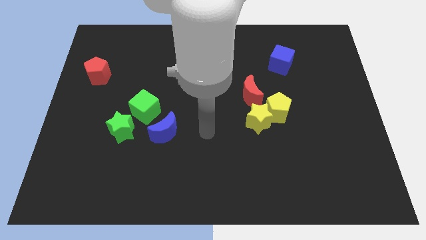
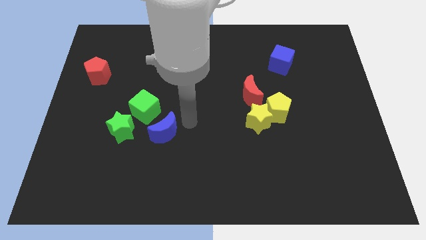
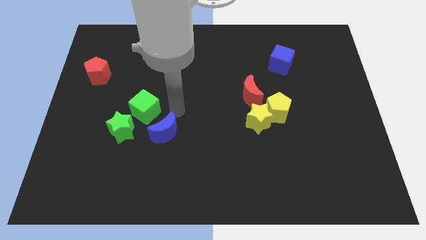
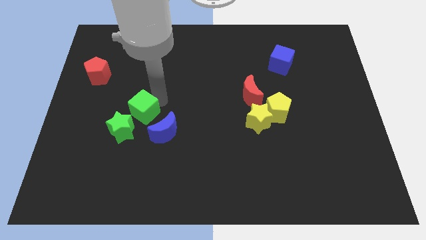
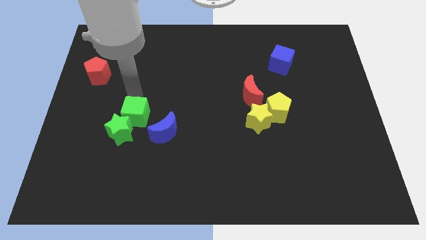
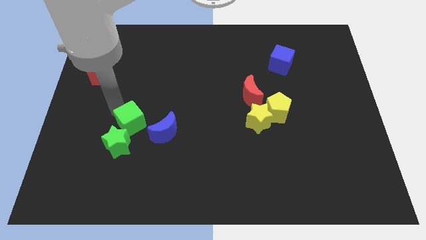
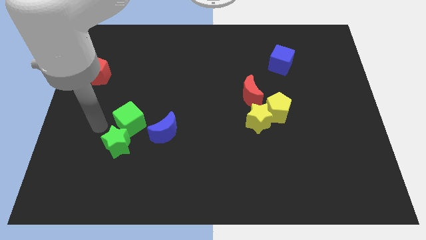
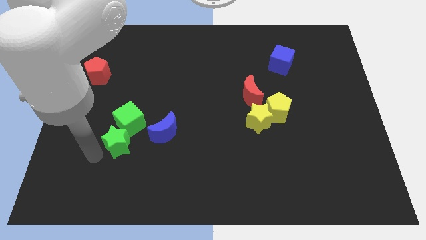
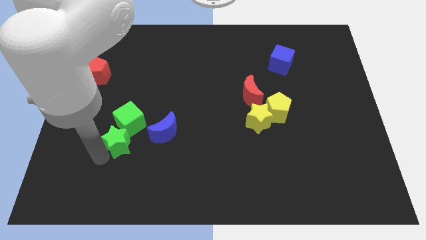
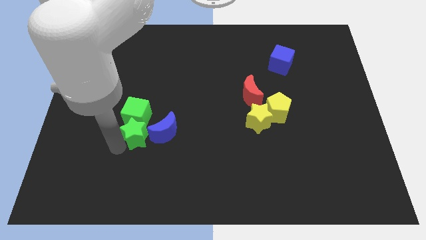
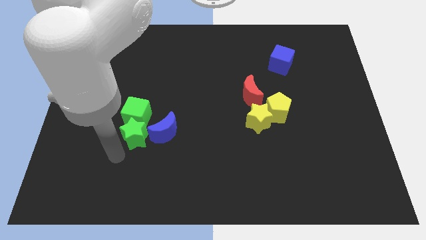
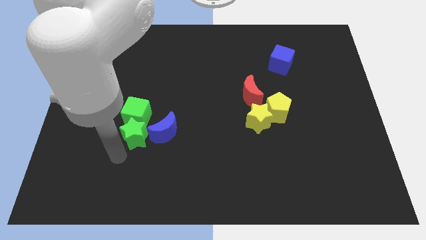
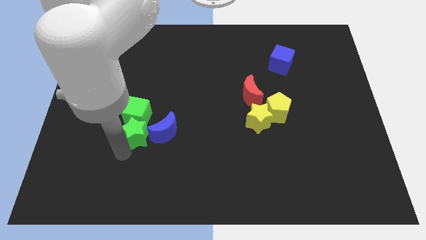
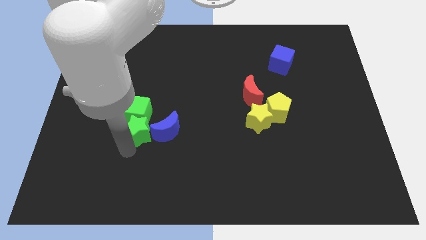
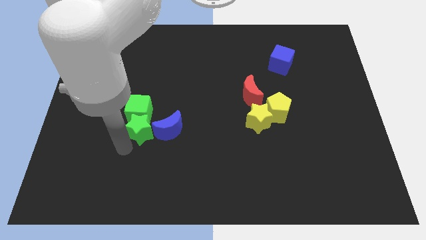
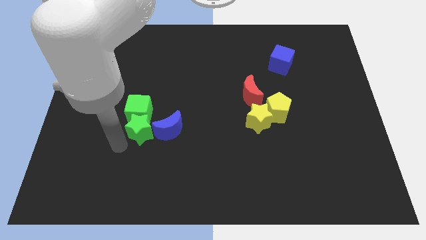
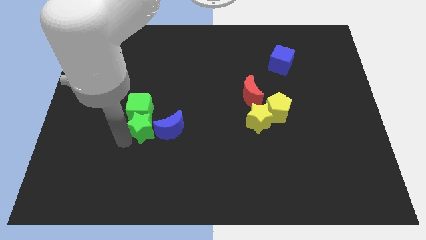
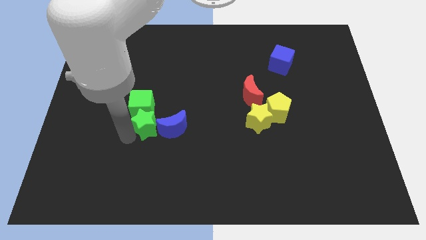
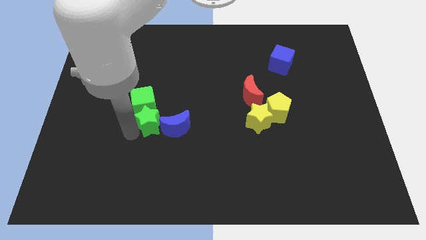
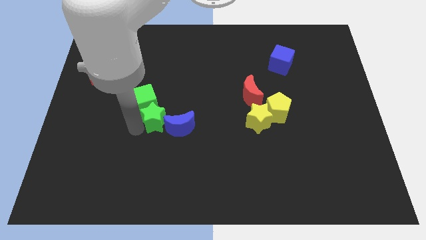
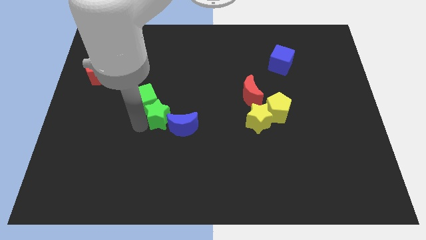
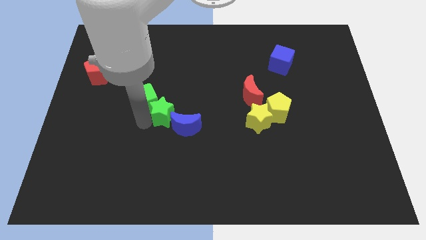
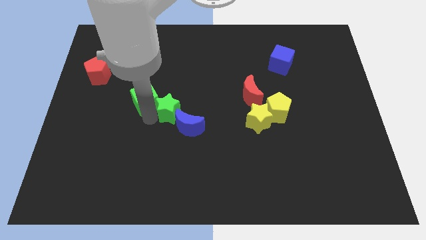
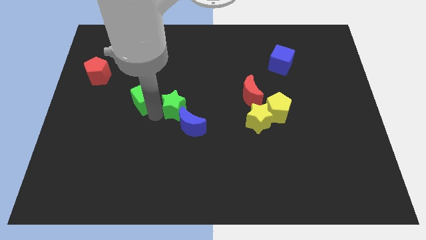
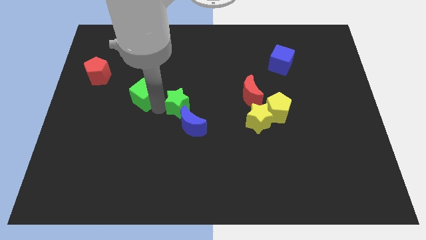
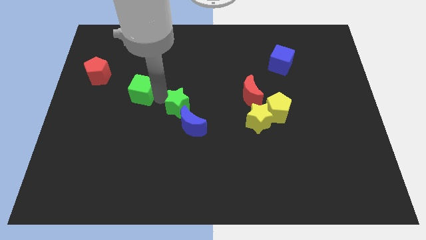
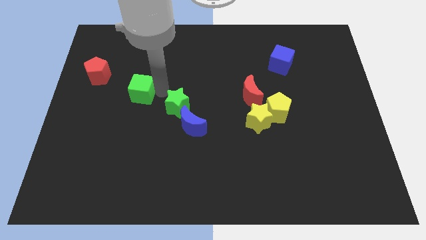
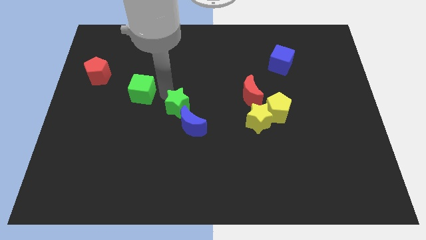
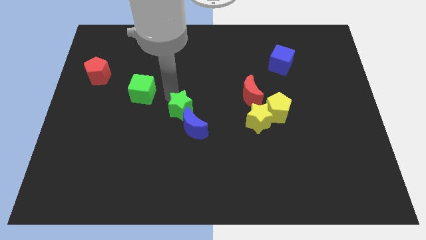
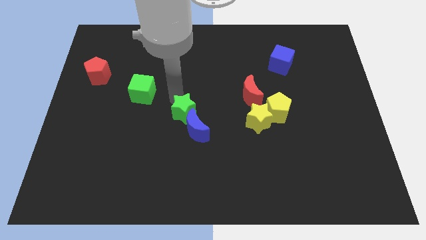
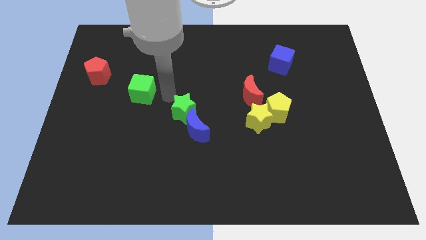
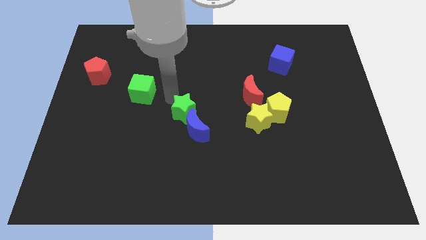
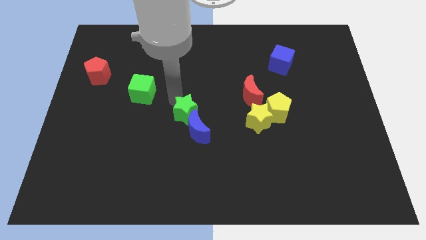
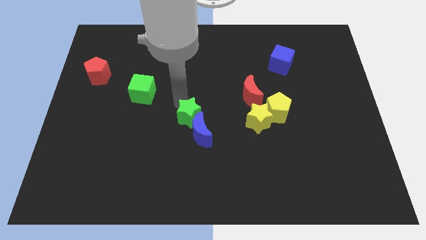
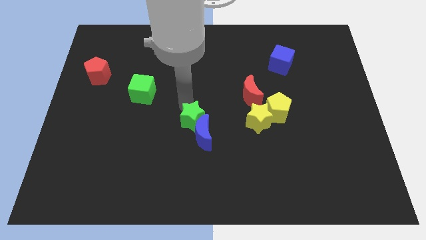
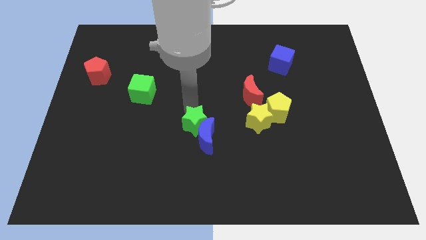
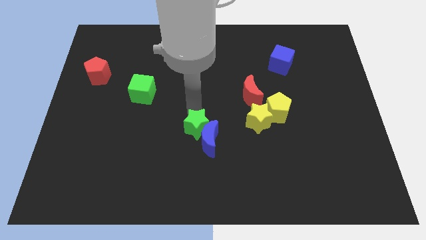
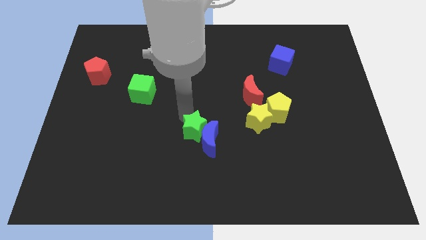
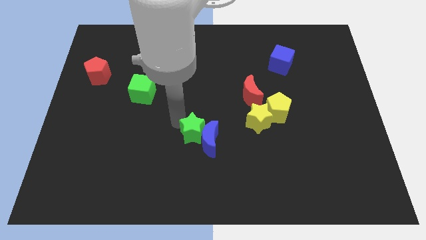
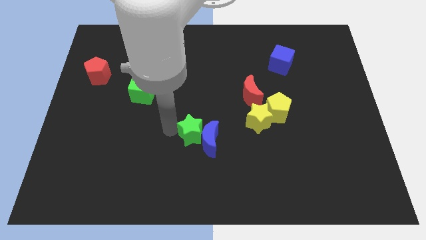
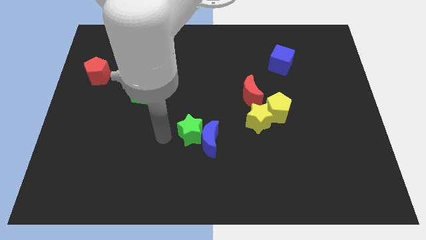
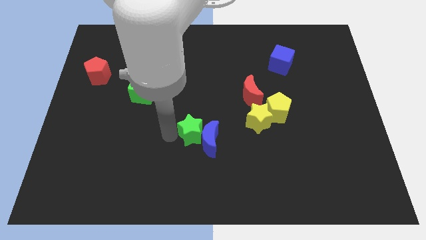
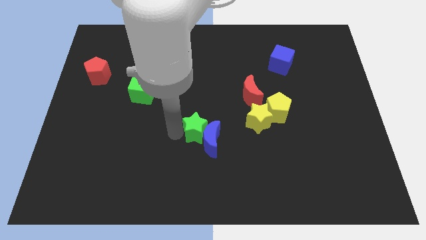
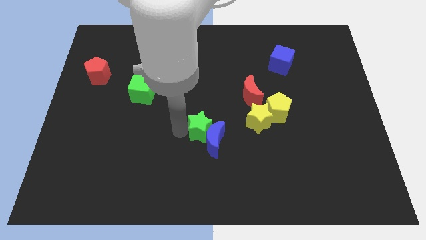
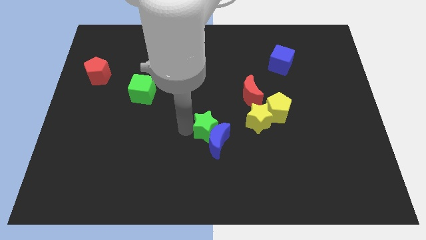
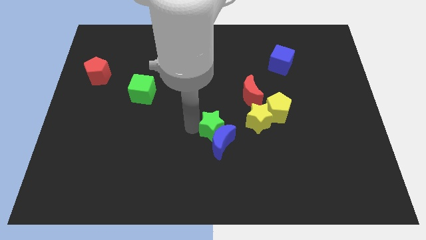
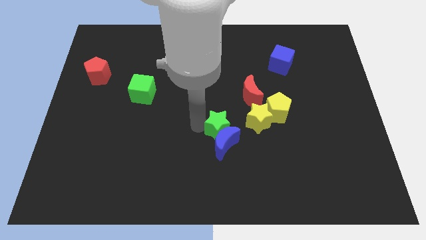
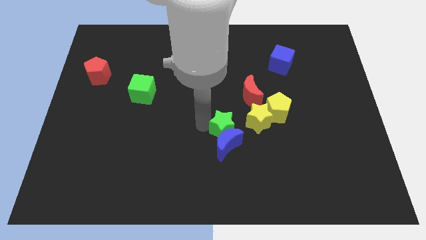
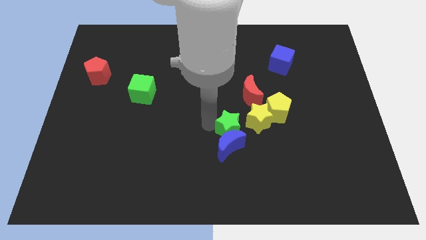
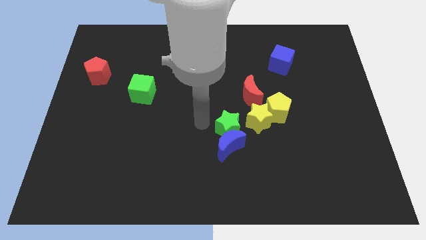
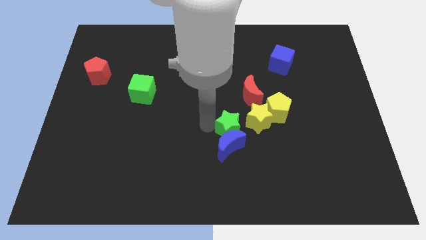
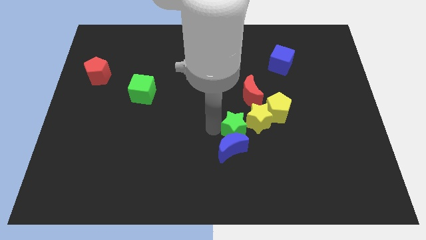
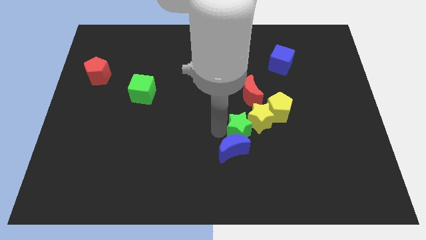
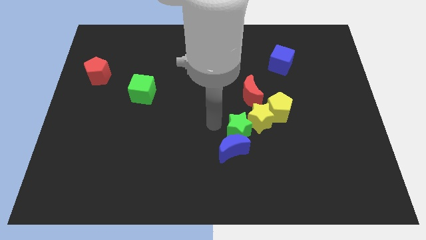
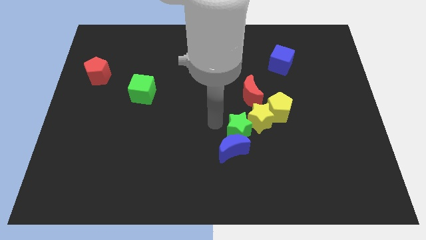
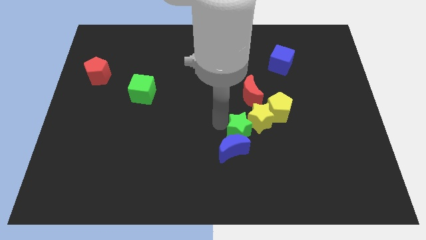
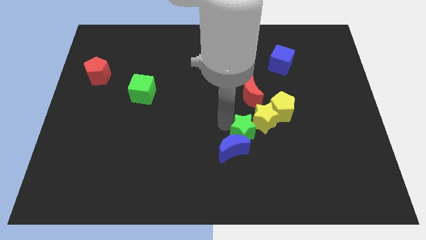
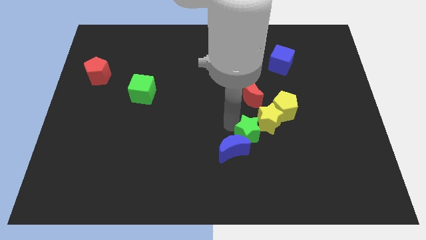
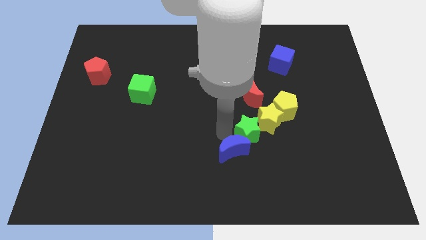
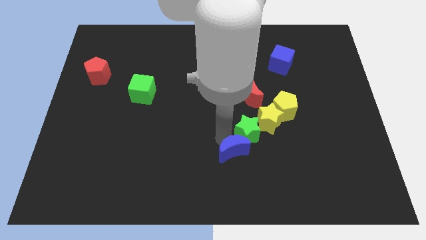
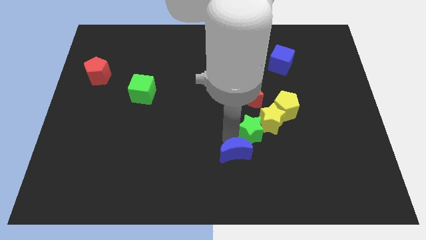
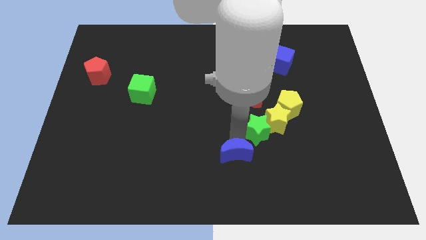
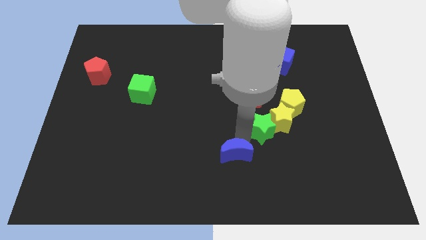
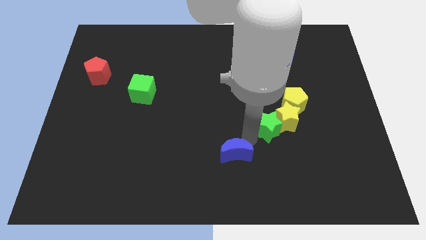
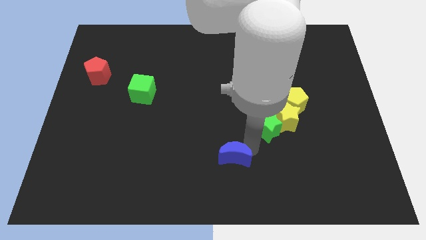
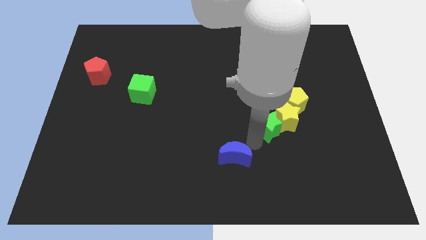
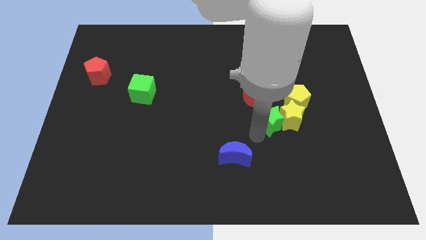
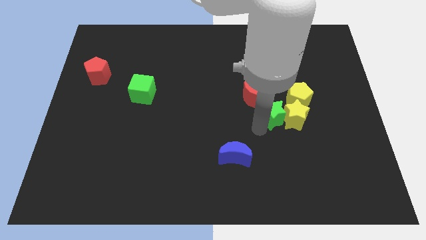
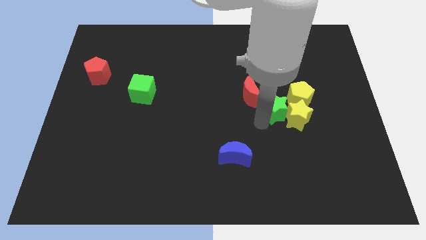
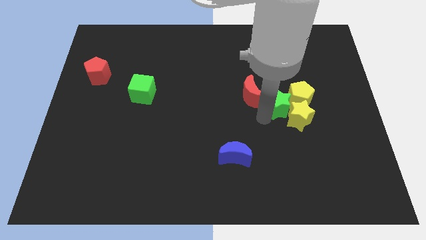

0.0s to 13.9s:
slide the green star towards the yellow pentagon
